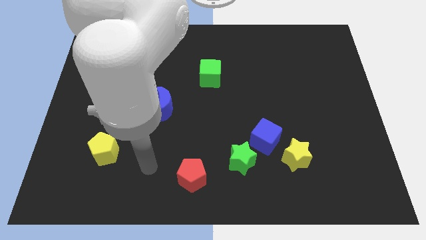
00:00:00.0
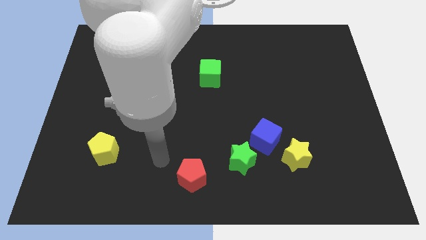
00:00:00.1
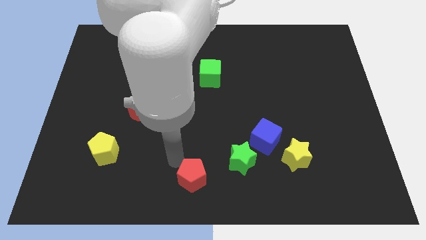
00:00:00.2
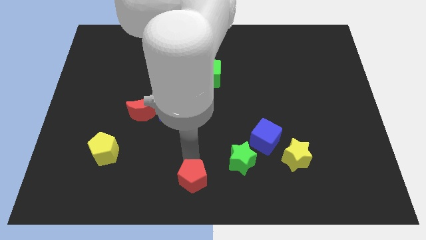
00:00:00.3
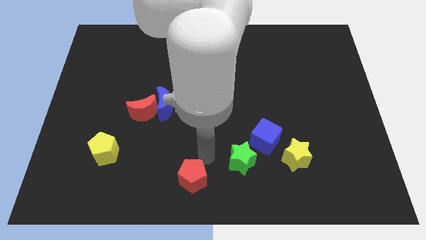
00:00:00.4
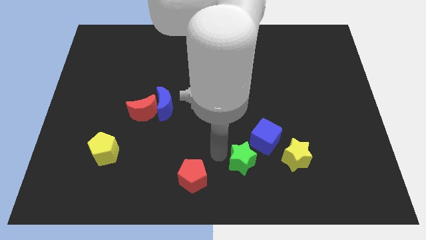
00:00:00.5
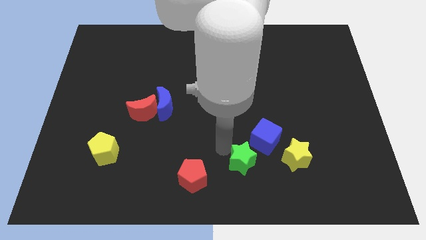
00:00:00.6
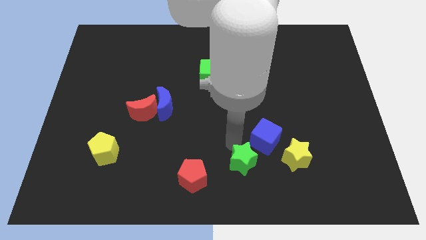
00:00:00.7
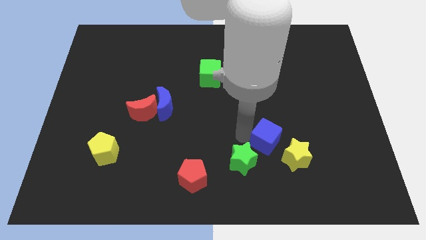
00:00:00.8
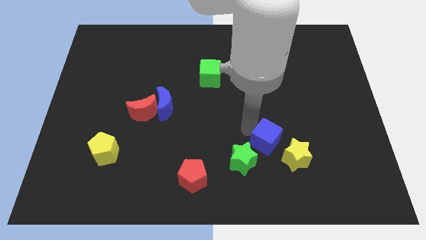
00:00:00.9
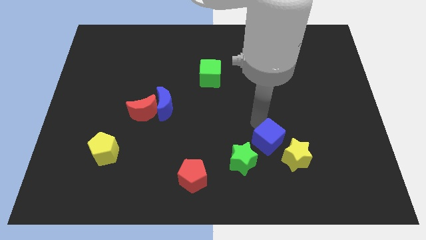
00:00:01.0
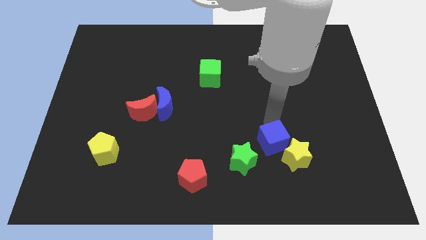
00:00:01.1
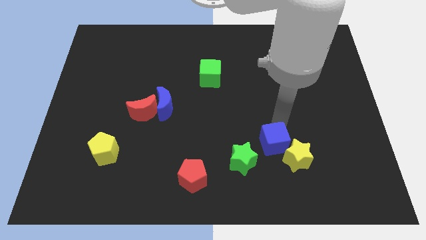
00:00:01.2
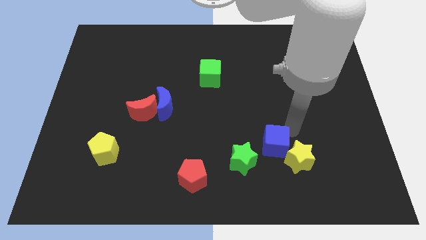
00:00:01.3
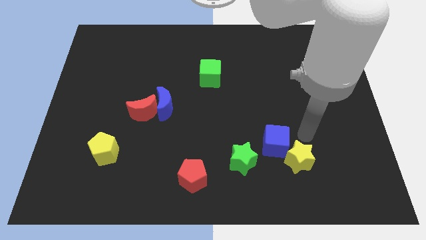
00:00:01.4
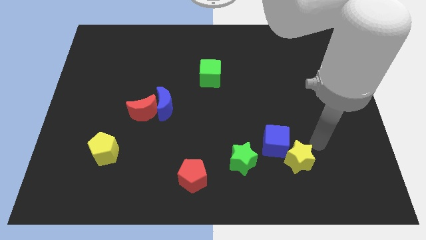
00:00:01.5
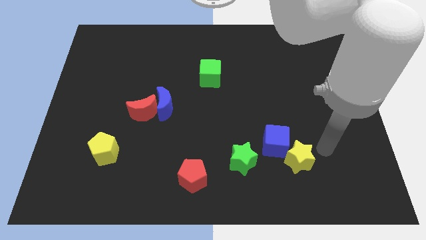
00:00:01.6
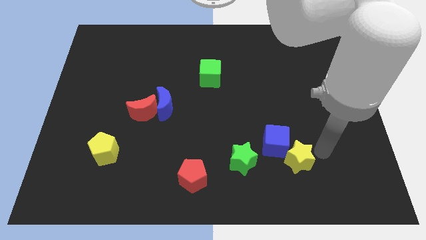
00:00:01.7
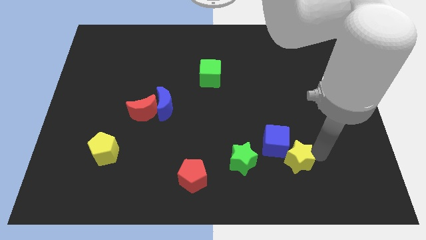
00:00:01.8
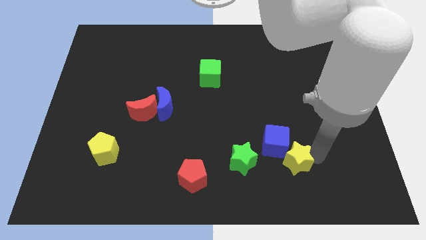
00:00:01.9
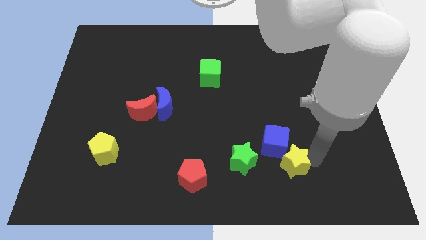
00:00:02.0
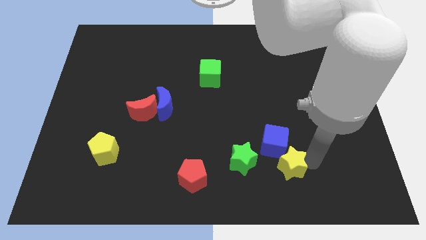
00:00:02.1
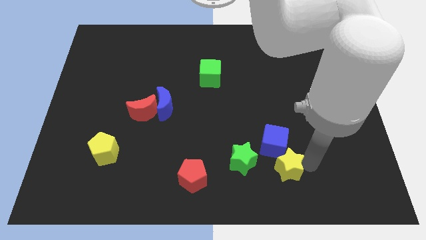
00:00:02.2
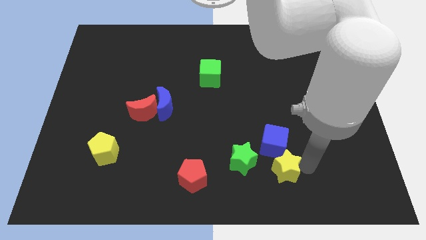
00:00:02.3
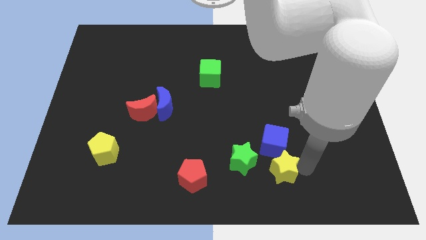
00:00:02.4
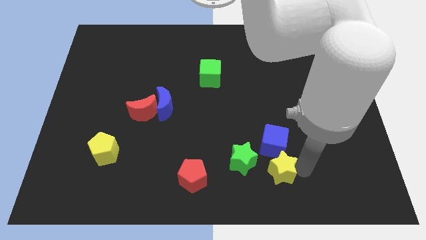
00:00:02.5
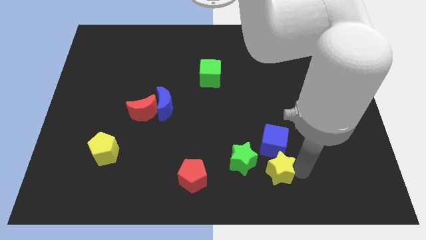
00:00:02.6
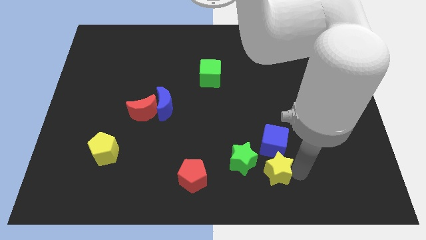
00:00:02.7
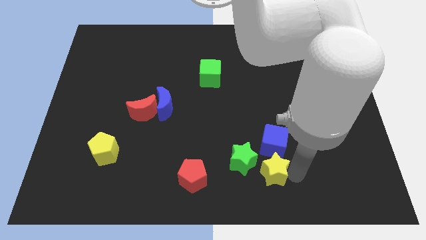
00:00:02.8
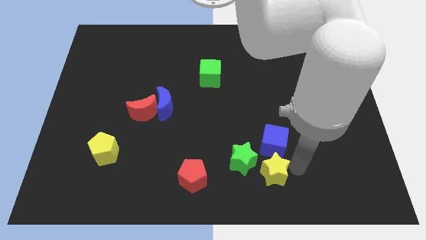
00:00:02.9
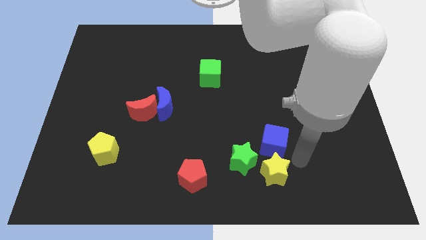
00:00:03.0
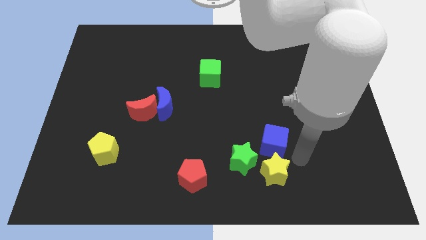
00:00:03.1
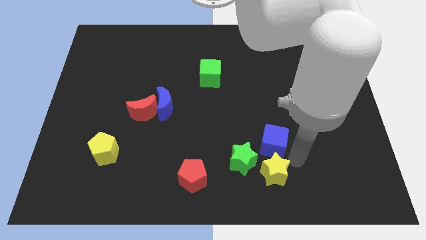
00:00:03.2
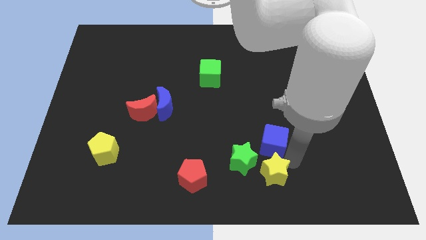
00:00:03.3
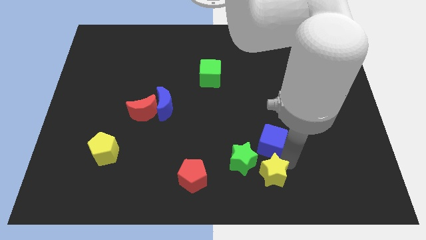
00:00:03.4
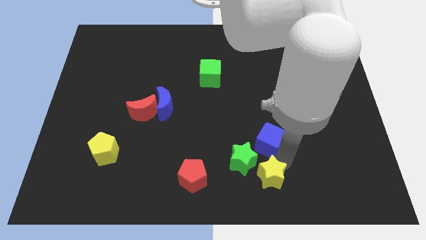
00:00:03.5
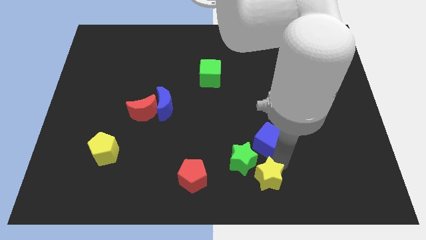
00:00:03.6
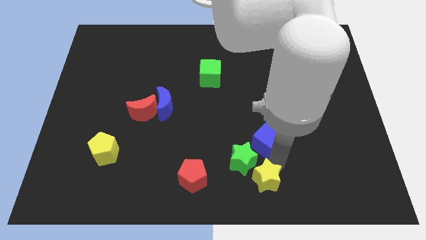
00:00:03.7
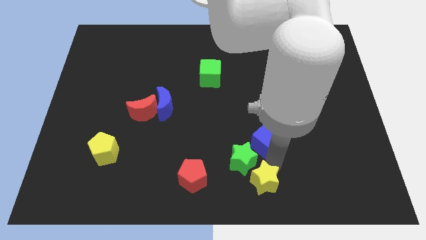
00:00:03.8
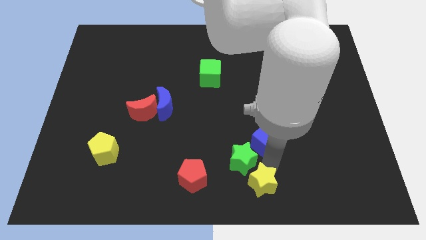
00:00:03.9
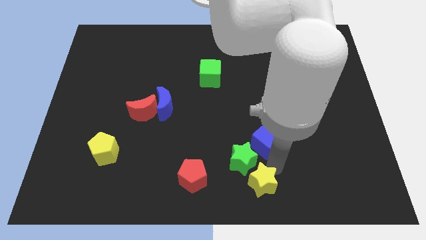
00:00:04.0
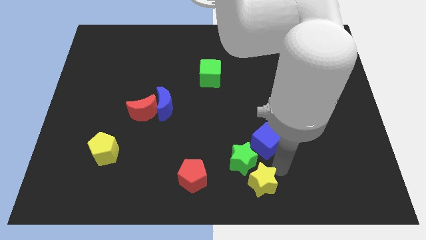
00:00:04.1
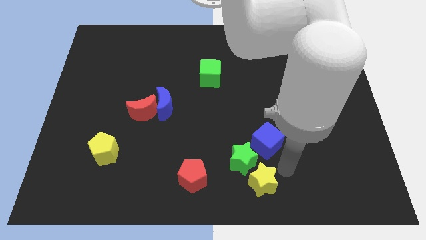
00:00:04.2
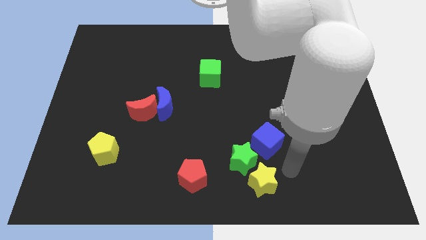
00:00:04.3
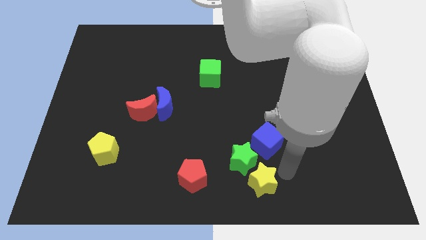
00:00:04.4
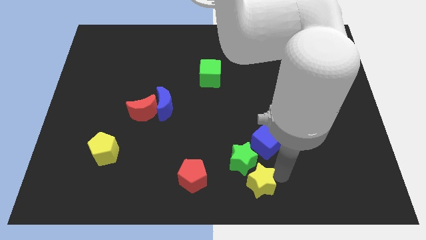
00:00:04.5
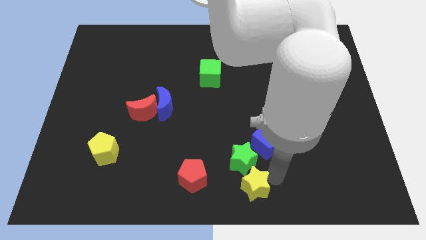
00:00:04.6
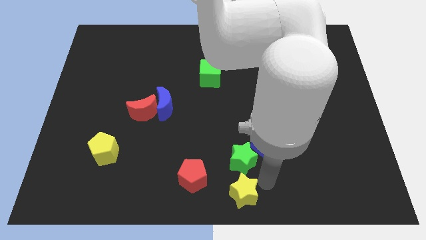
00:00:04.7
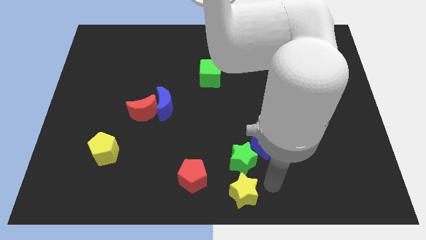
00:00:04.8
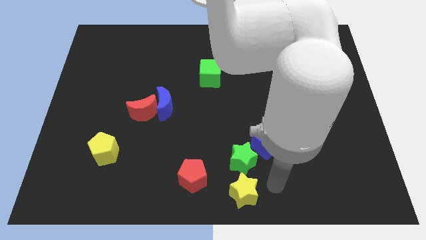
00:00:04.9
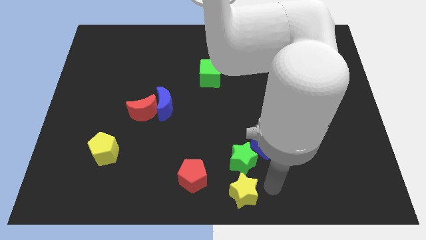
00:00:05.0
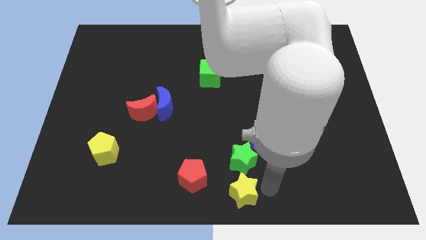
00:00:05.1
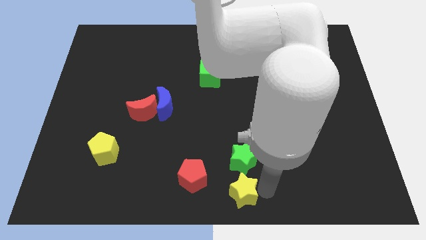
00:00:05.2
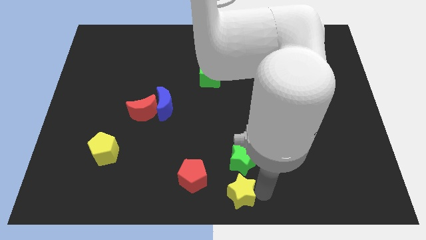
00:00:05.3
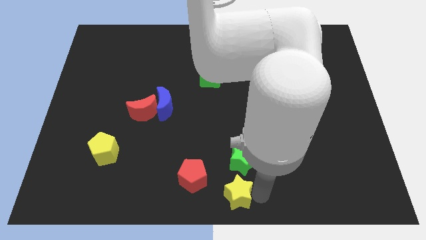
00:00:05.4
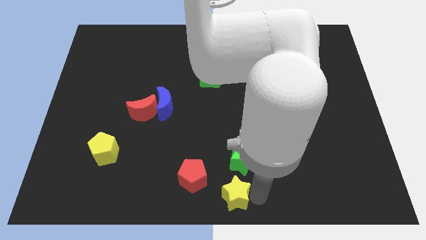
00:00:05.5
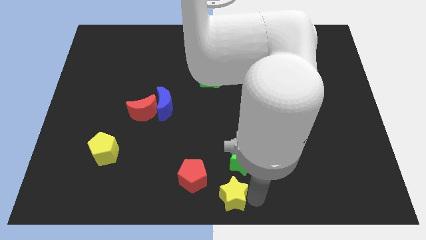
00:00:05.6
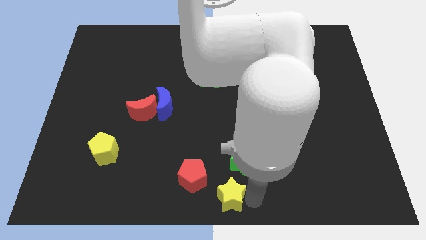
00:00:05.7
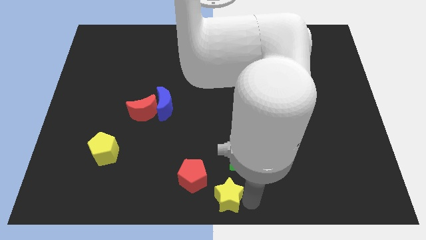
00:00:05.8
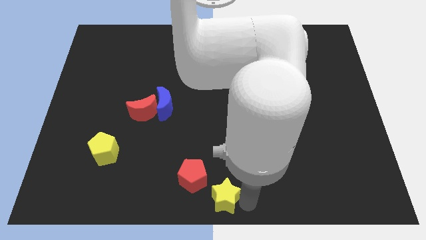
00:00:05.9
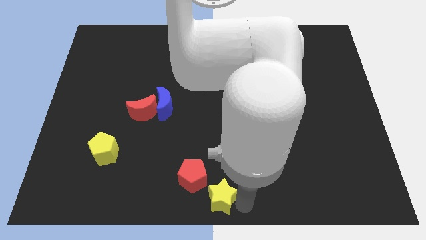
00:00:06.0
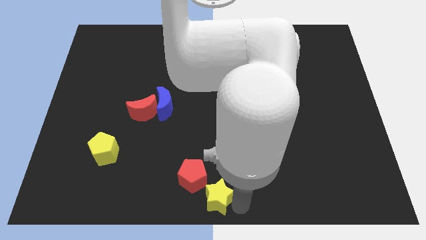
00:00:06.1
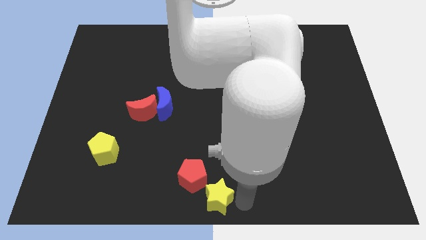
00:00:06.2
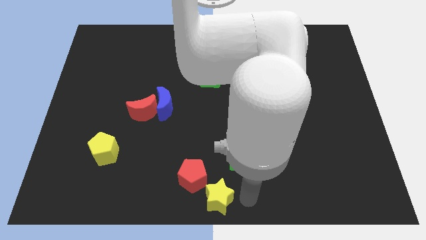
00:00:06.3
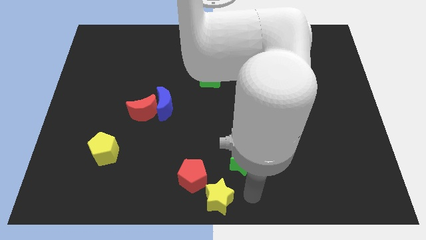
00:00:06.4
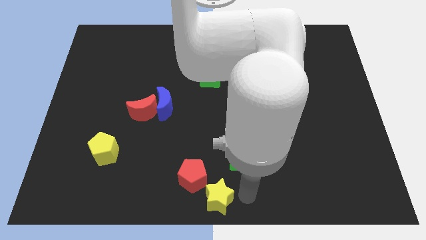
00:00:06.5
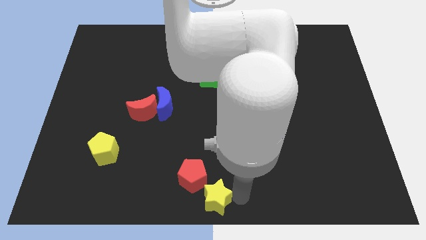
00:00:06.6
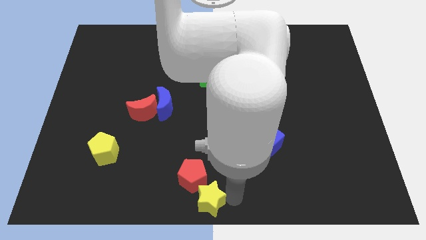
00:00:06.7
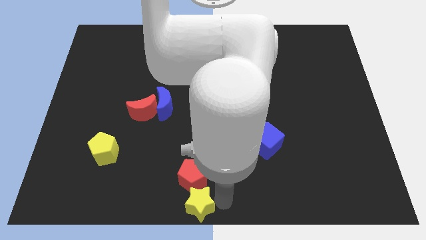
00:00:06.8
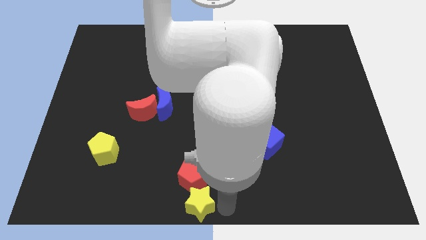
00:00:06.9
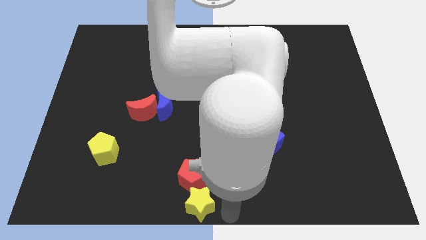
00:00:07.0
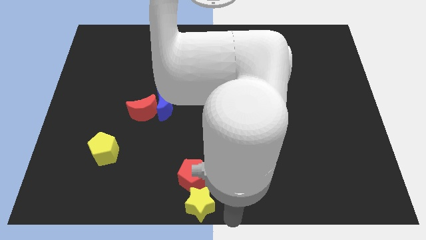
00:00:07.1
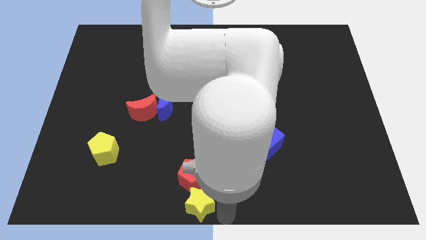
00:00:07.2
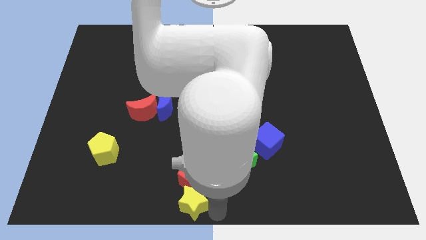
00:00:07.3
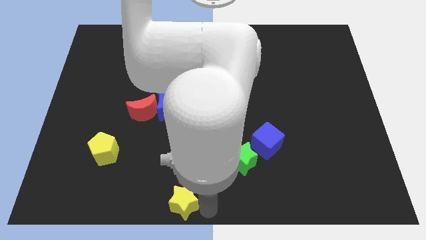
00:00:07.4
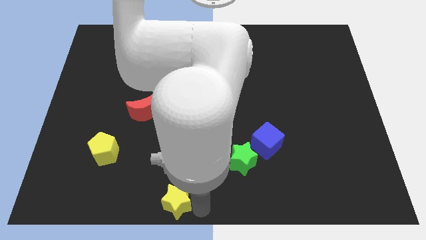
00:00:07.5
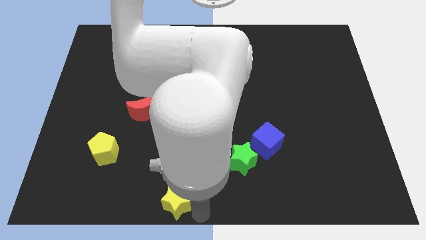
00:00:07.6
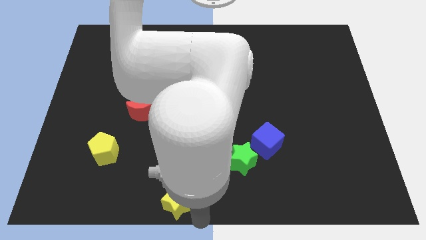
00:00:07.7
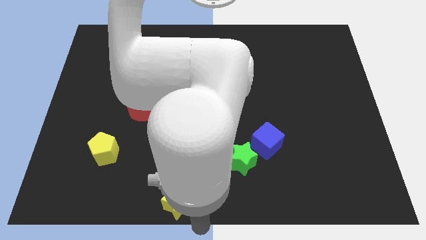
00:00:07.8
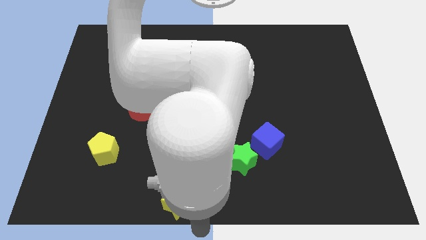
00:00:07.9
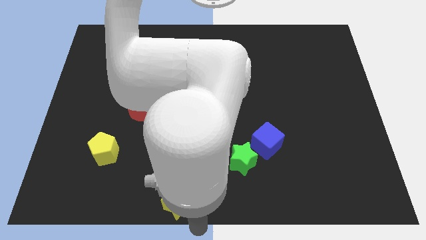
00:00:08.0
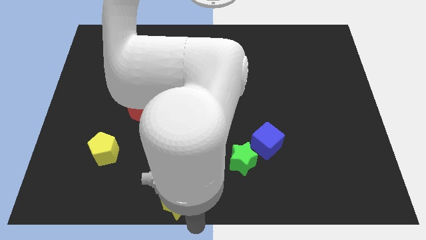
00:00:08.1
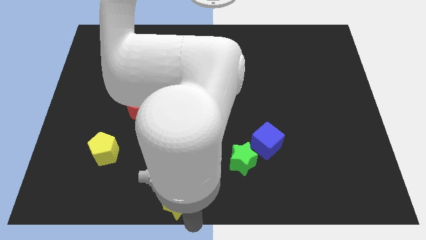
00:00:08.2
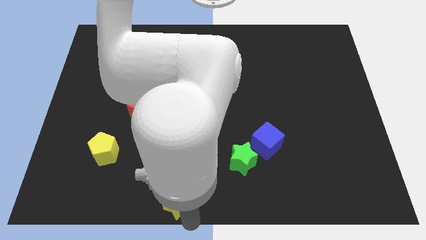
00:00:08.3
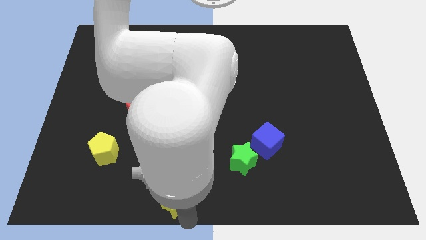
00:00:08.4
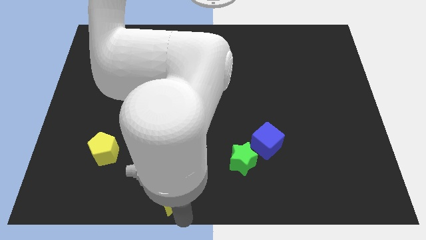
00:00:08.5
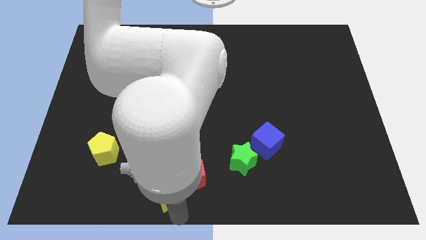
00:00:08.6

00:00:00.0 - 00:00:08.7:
slide the yellow star left of the red pentagon
